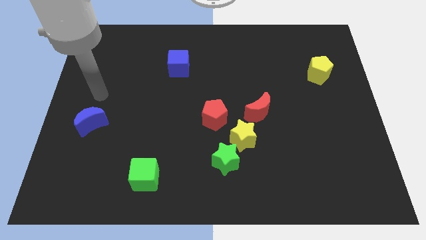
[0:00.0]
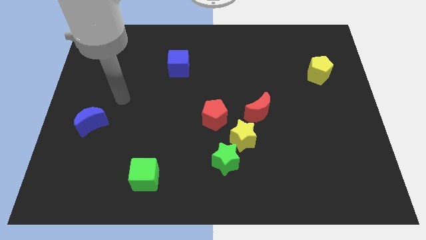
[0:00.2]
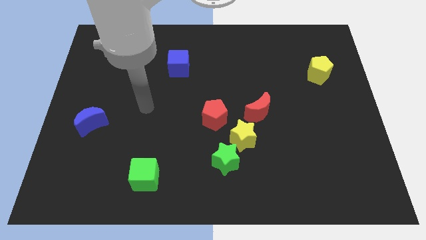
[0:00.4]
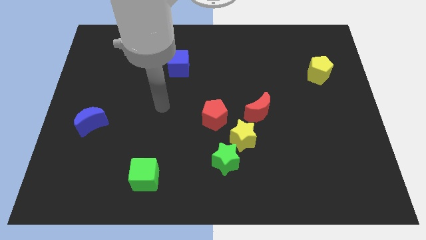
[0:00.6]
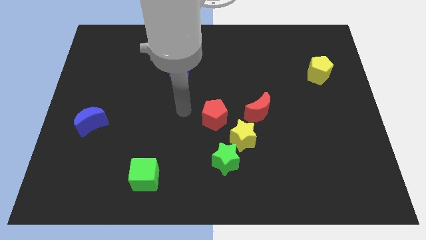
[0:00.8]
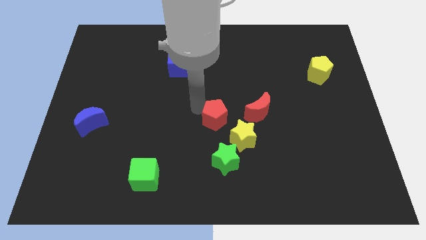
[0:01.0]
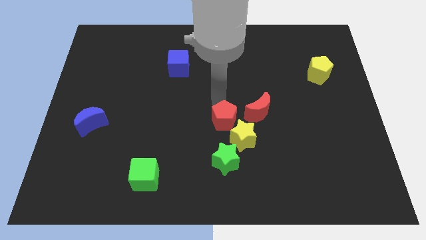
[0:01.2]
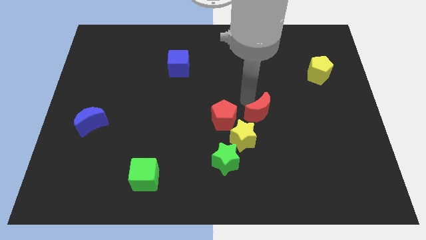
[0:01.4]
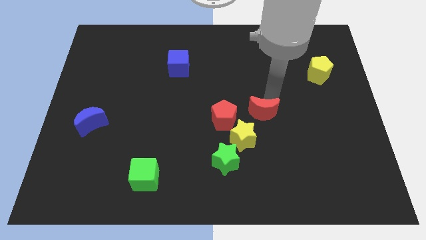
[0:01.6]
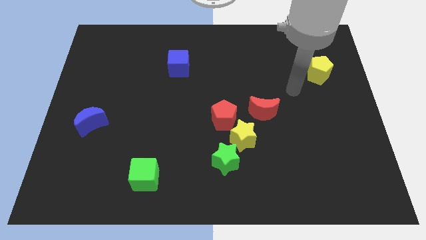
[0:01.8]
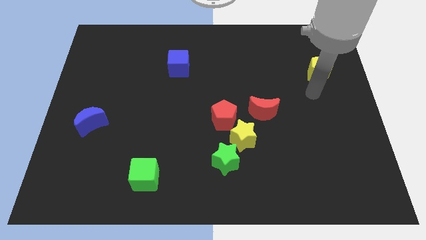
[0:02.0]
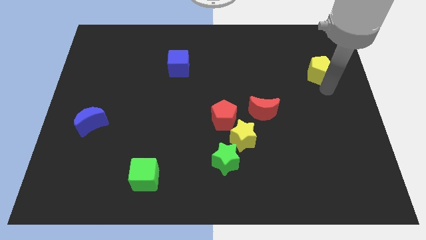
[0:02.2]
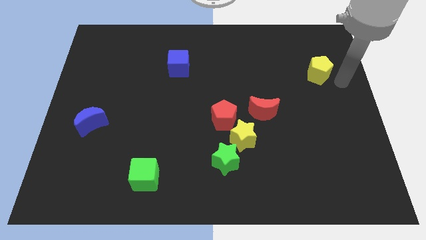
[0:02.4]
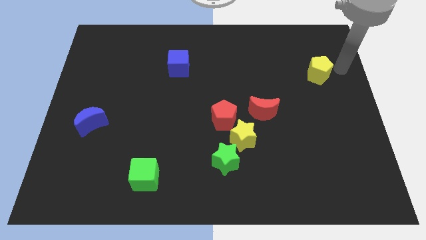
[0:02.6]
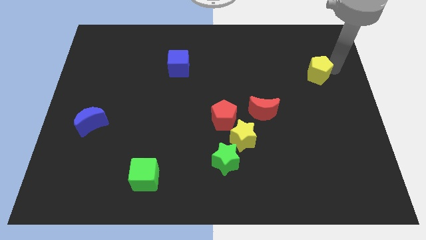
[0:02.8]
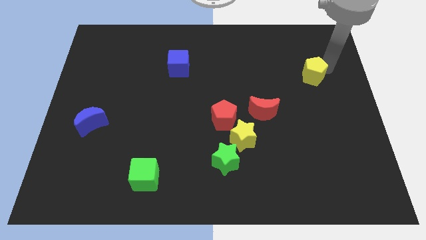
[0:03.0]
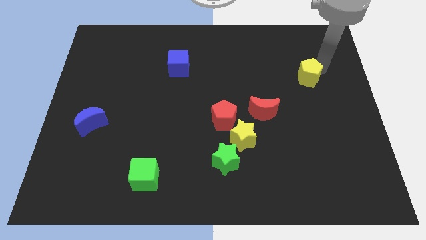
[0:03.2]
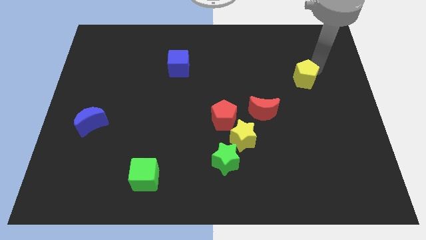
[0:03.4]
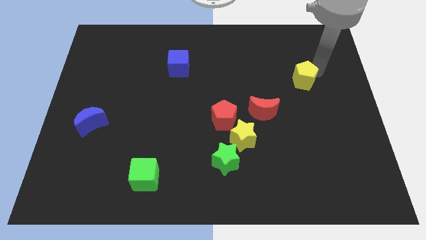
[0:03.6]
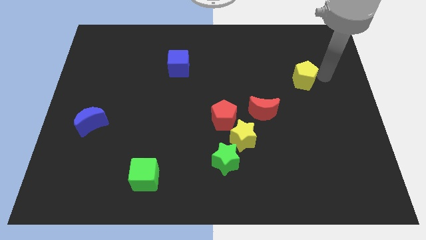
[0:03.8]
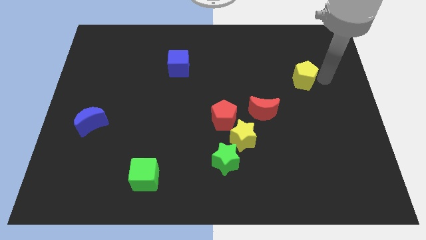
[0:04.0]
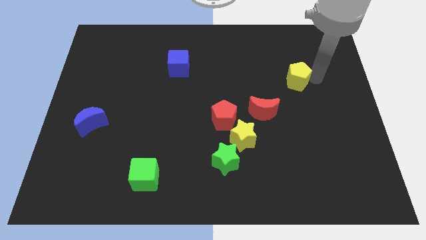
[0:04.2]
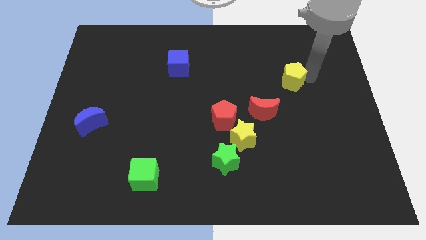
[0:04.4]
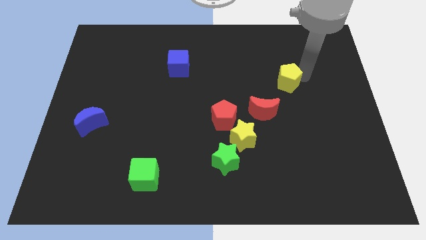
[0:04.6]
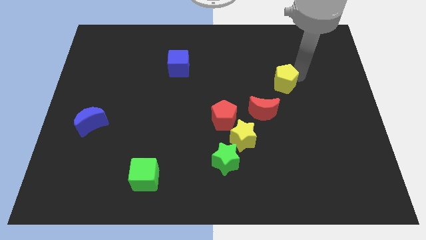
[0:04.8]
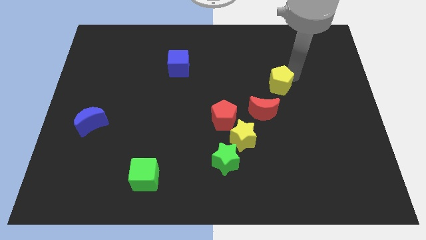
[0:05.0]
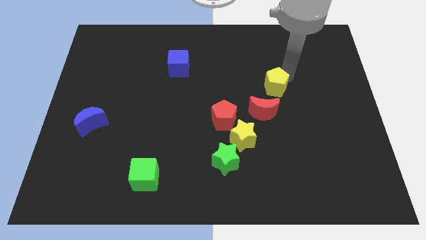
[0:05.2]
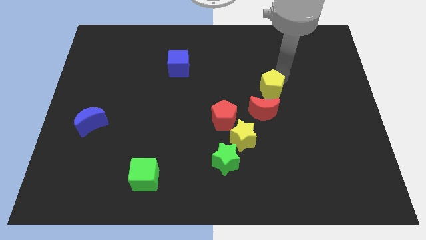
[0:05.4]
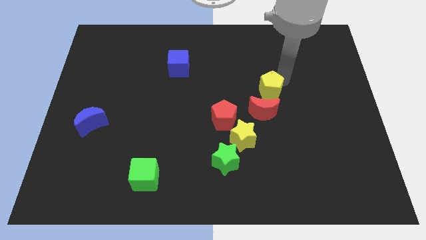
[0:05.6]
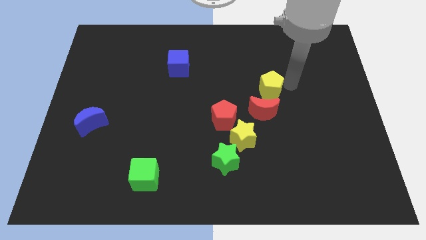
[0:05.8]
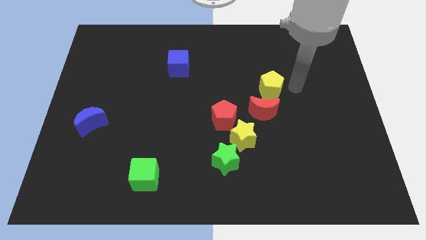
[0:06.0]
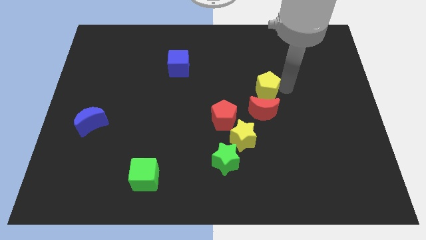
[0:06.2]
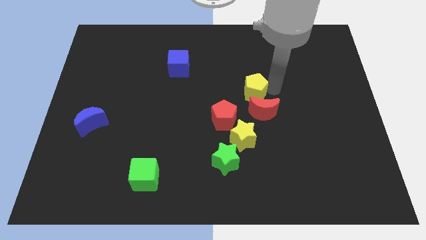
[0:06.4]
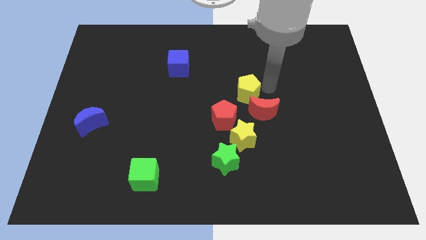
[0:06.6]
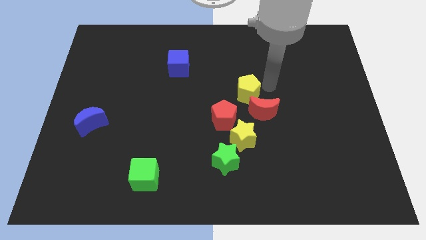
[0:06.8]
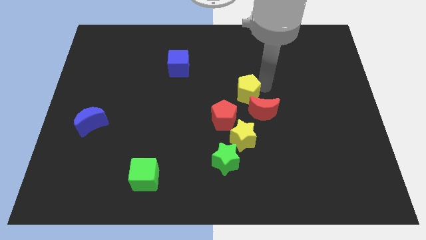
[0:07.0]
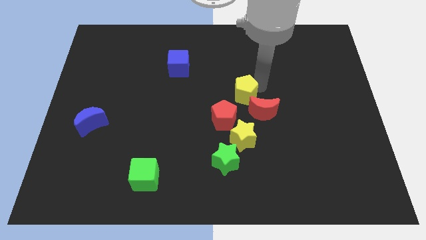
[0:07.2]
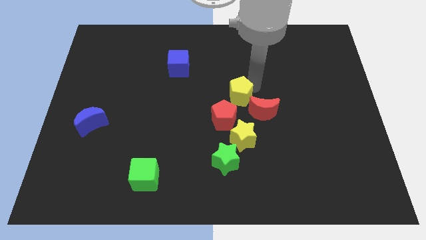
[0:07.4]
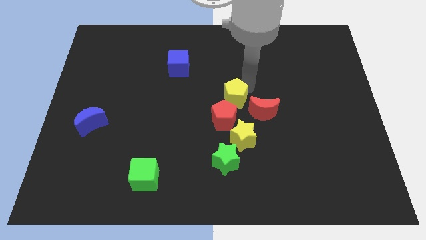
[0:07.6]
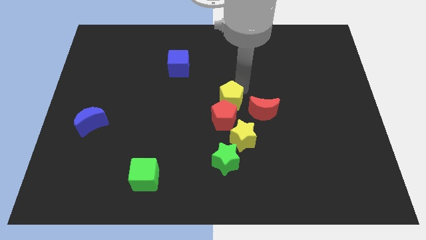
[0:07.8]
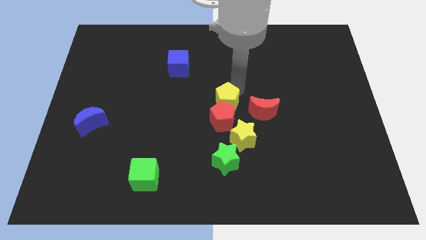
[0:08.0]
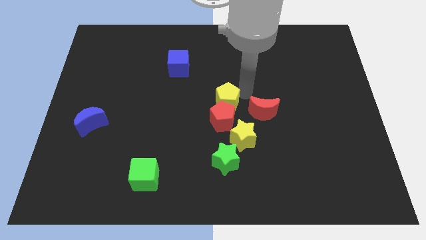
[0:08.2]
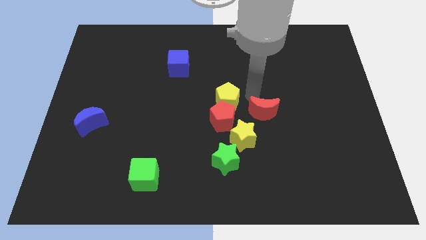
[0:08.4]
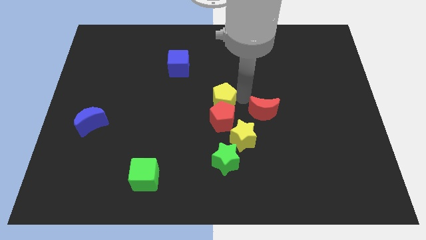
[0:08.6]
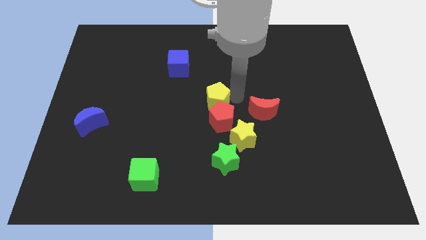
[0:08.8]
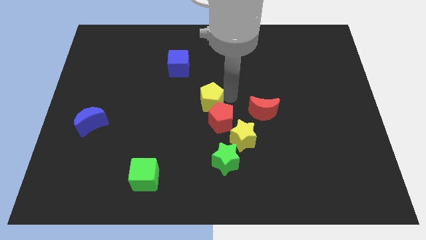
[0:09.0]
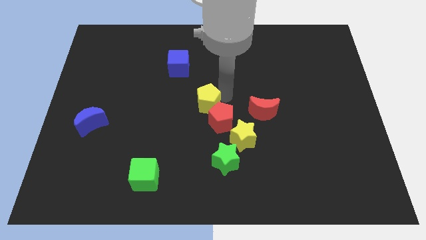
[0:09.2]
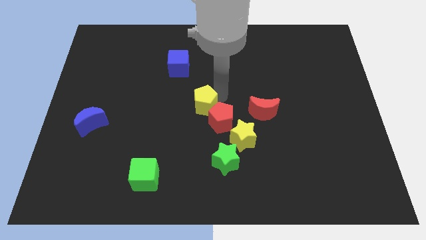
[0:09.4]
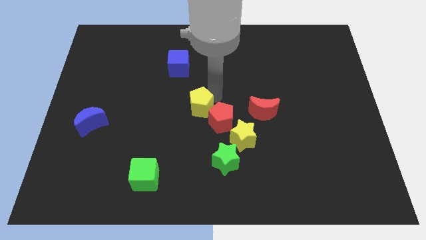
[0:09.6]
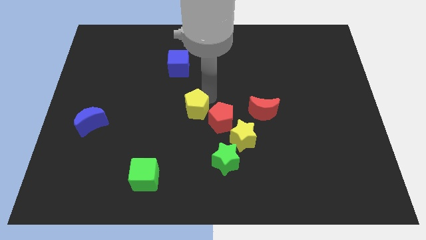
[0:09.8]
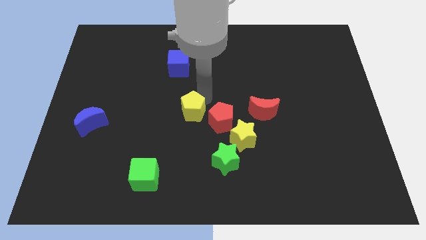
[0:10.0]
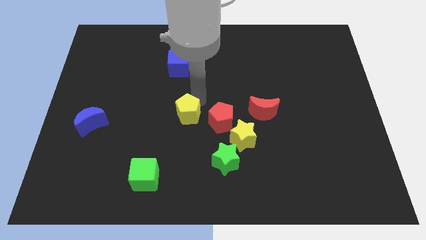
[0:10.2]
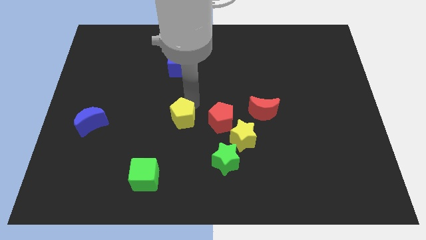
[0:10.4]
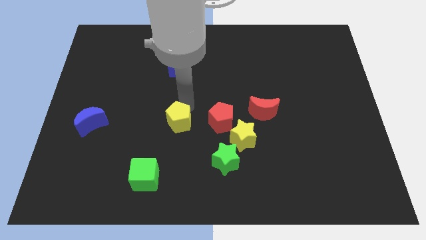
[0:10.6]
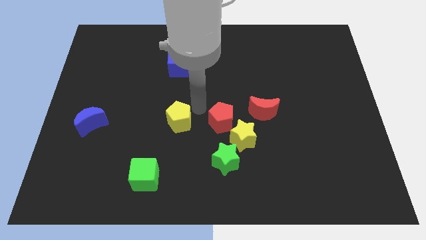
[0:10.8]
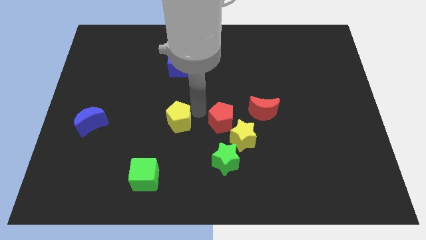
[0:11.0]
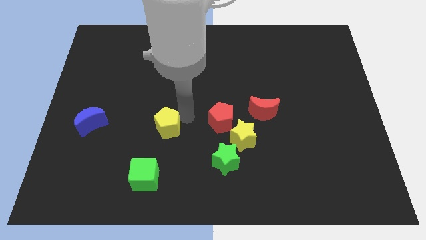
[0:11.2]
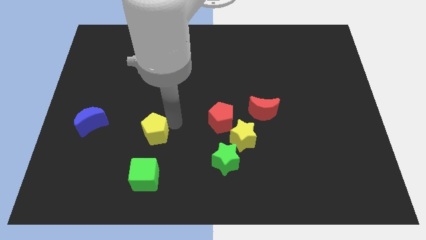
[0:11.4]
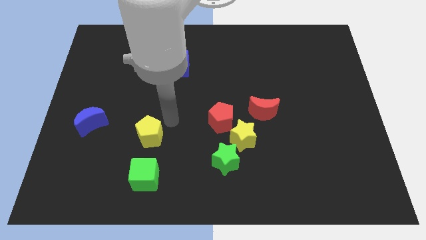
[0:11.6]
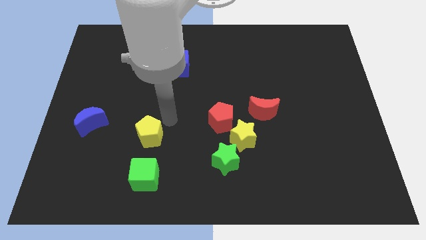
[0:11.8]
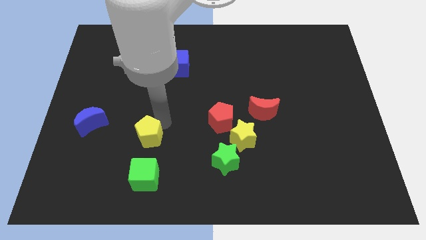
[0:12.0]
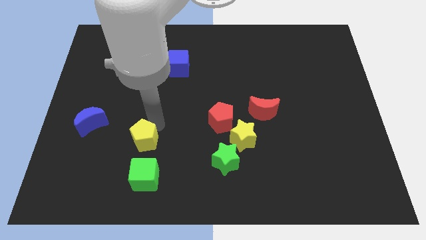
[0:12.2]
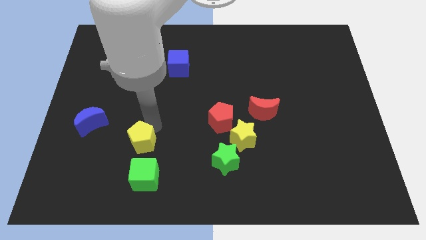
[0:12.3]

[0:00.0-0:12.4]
put the yellow pentagon diagonally up and to the left of the green cube
